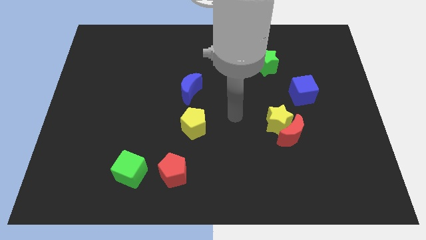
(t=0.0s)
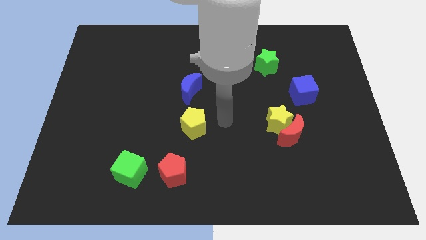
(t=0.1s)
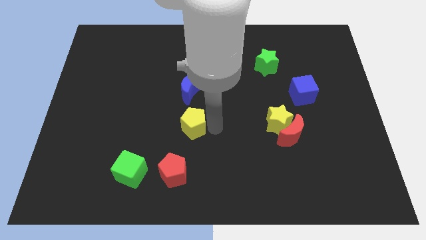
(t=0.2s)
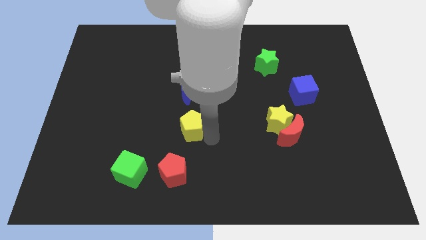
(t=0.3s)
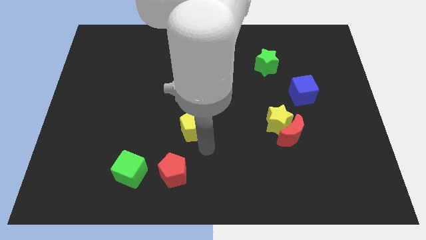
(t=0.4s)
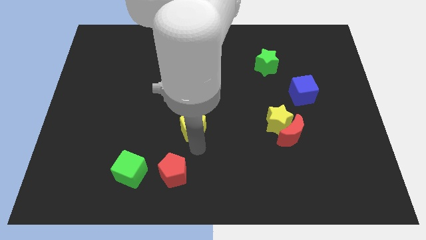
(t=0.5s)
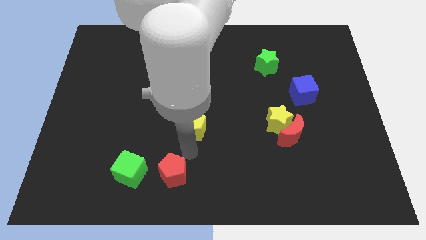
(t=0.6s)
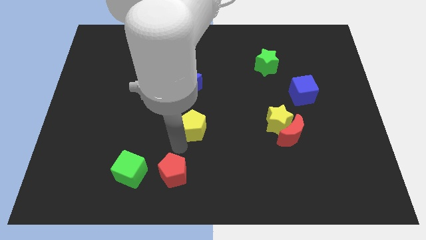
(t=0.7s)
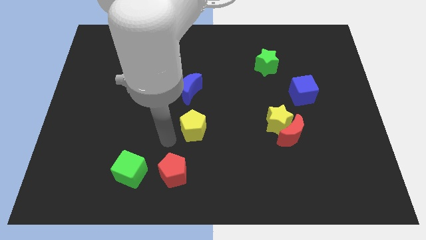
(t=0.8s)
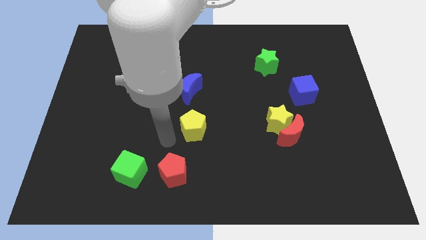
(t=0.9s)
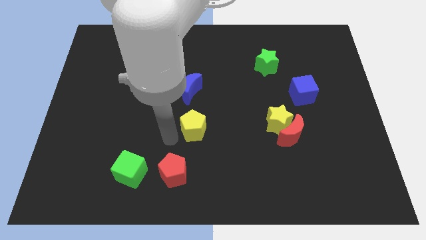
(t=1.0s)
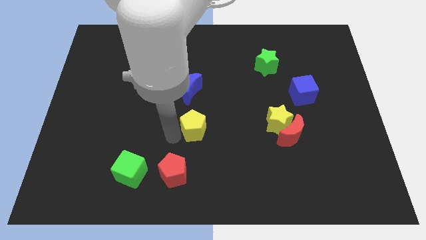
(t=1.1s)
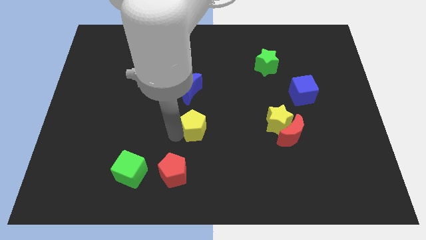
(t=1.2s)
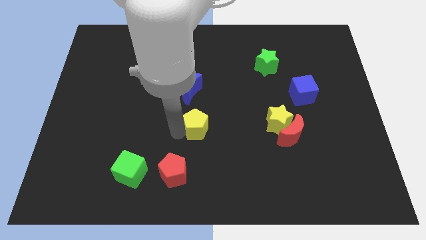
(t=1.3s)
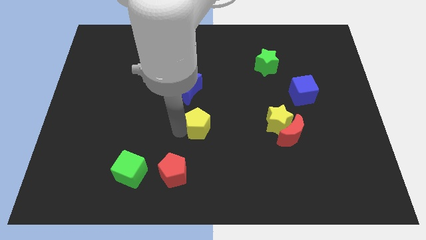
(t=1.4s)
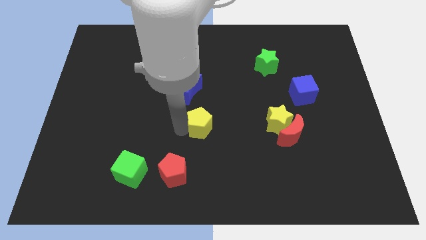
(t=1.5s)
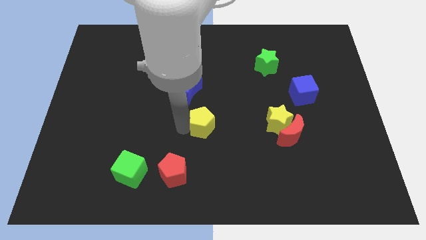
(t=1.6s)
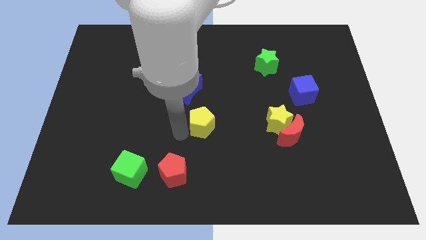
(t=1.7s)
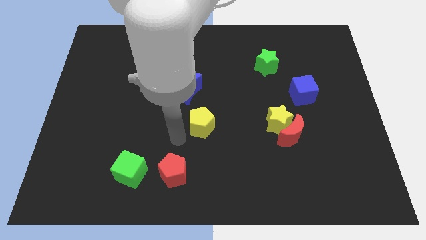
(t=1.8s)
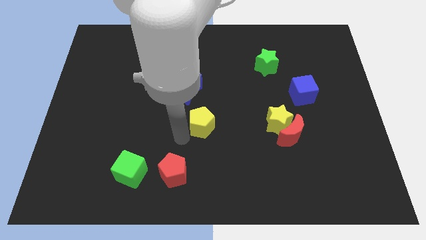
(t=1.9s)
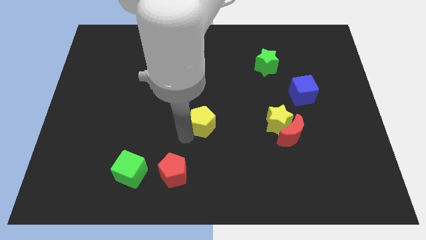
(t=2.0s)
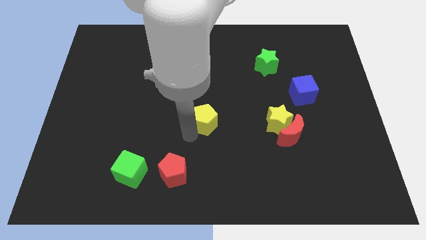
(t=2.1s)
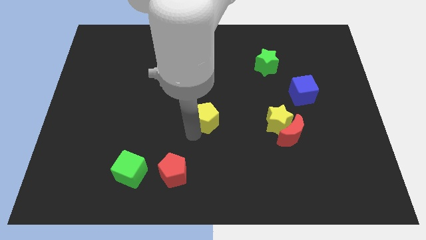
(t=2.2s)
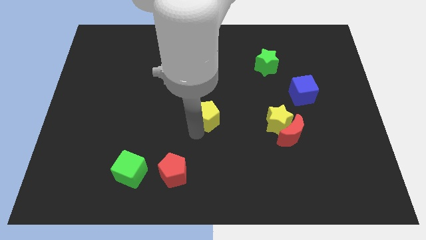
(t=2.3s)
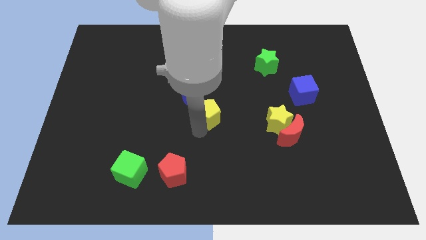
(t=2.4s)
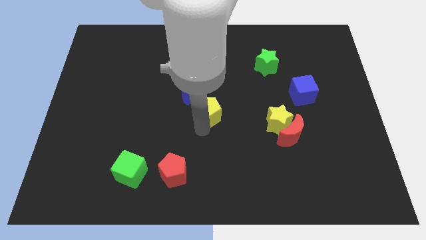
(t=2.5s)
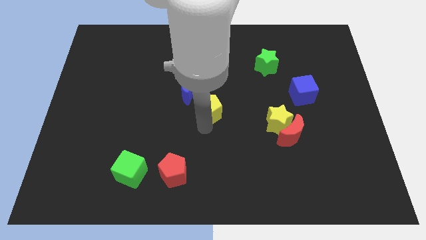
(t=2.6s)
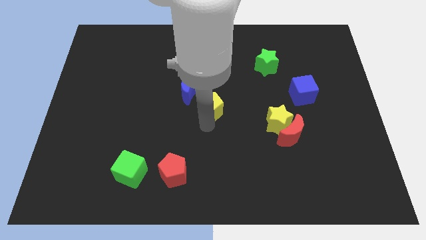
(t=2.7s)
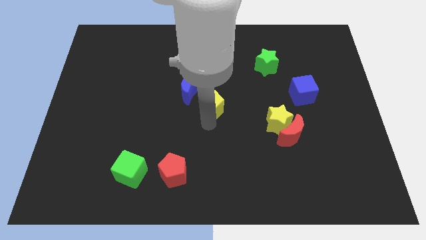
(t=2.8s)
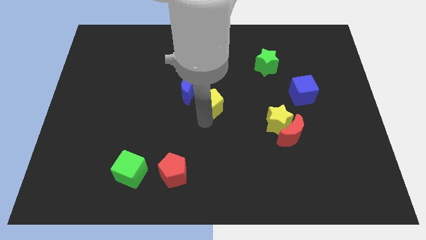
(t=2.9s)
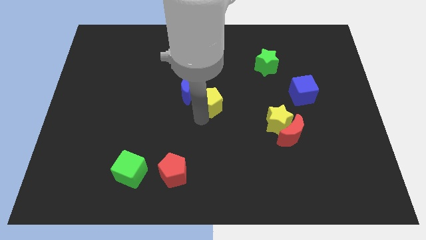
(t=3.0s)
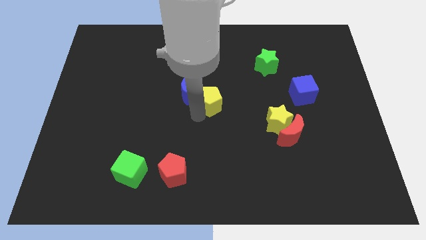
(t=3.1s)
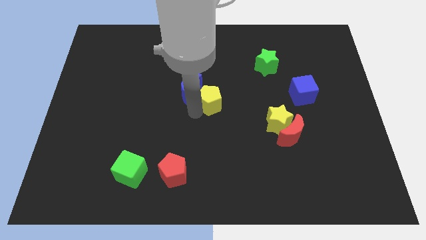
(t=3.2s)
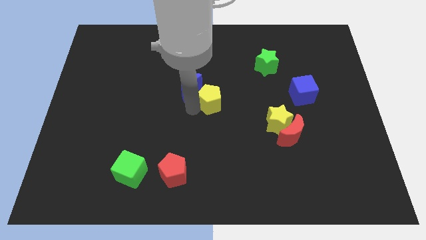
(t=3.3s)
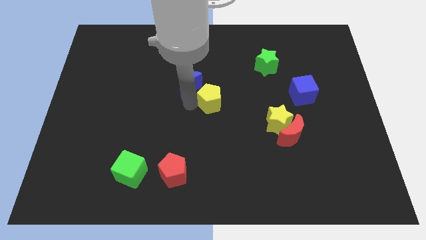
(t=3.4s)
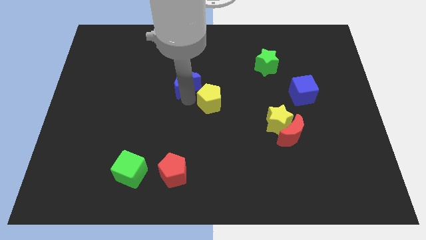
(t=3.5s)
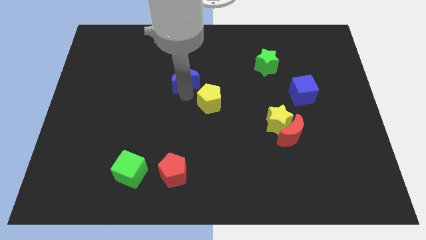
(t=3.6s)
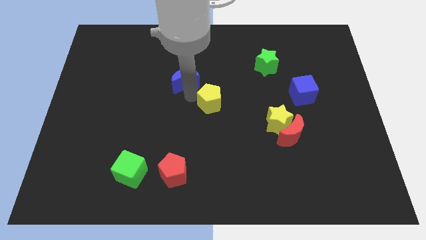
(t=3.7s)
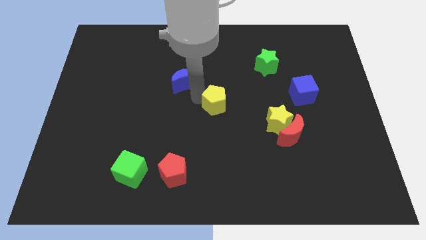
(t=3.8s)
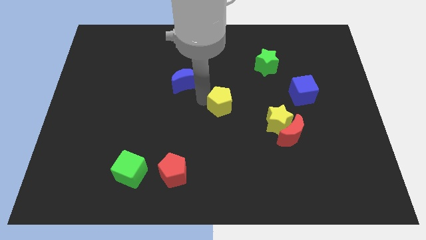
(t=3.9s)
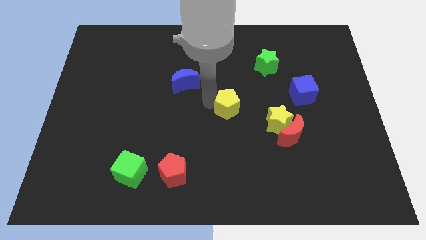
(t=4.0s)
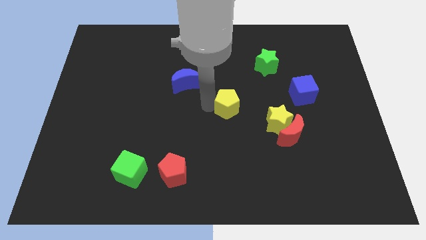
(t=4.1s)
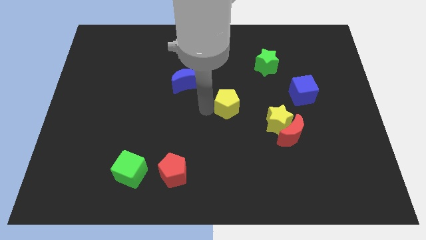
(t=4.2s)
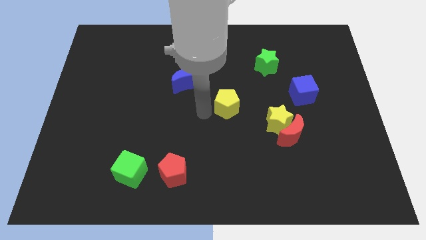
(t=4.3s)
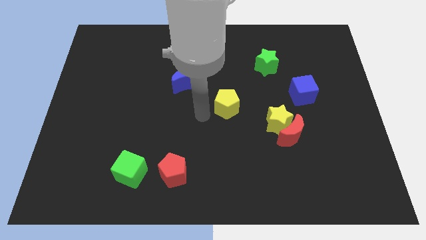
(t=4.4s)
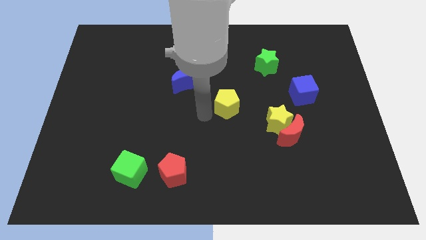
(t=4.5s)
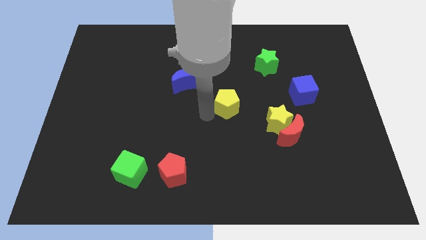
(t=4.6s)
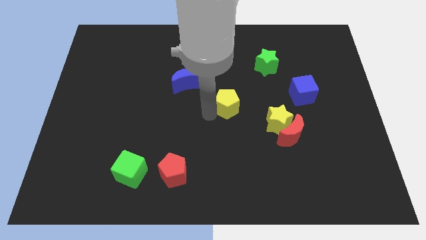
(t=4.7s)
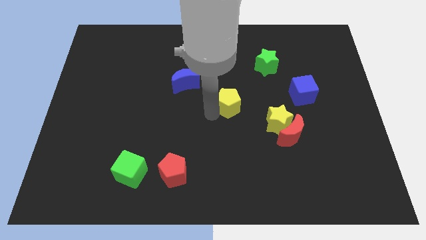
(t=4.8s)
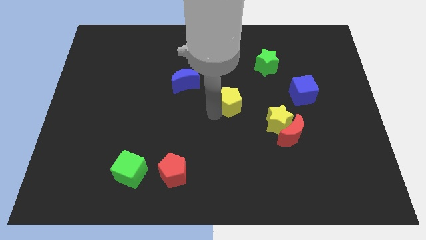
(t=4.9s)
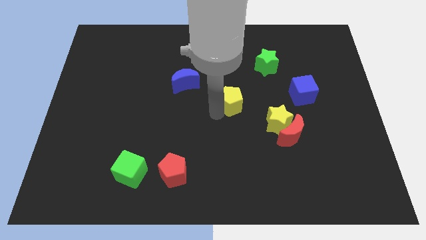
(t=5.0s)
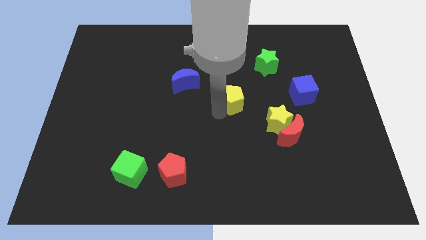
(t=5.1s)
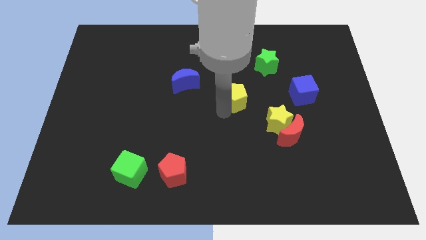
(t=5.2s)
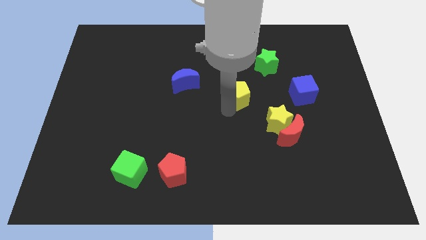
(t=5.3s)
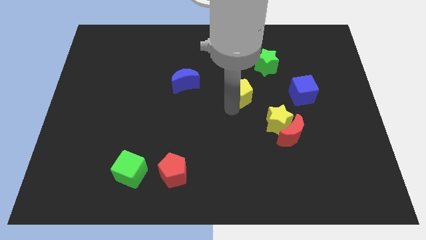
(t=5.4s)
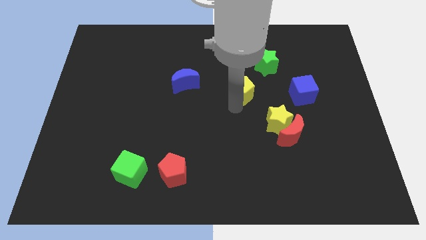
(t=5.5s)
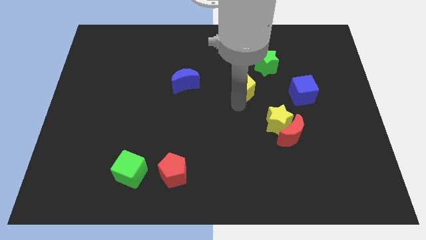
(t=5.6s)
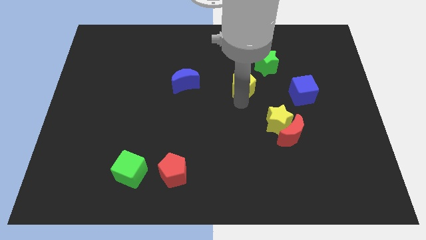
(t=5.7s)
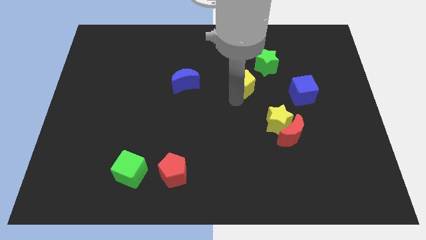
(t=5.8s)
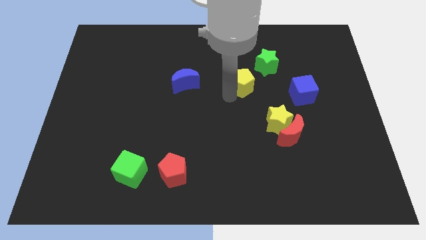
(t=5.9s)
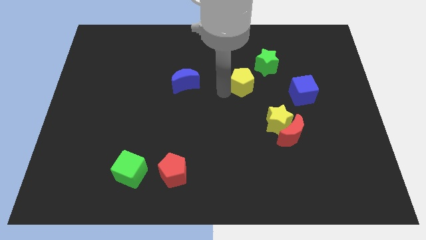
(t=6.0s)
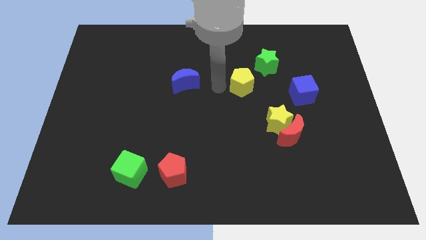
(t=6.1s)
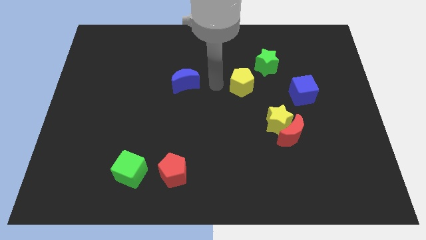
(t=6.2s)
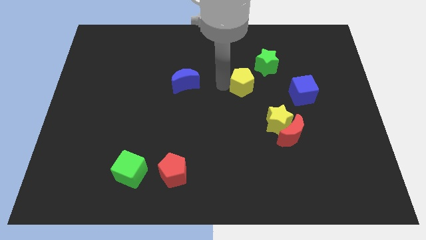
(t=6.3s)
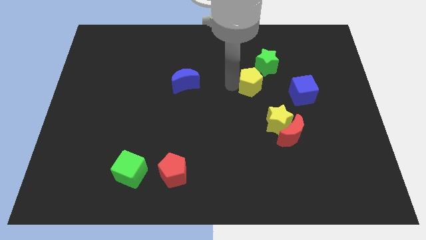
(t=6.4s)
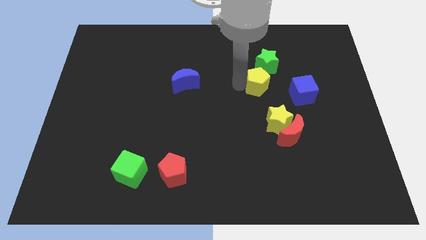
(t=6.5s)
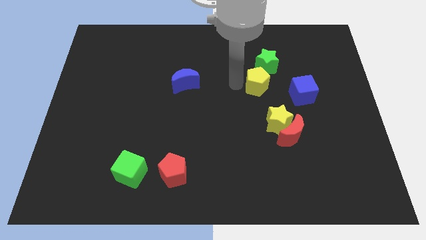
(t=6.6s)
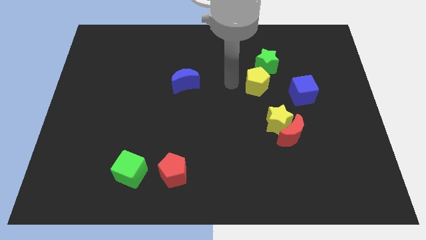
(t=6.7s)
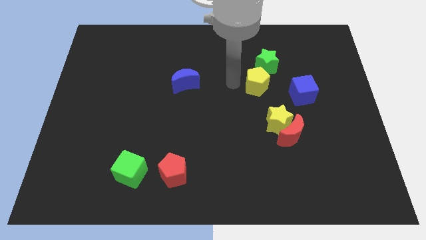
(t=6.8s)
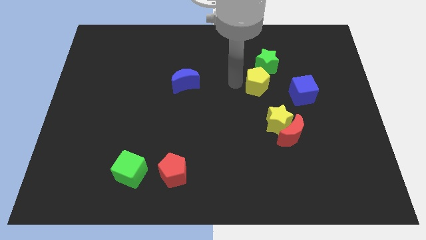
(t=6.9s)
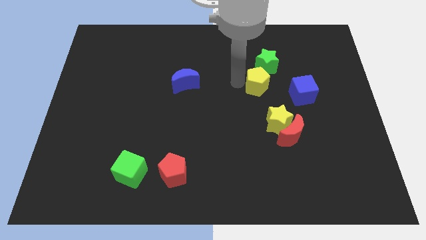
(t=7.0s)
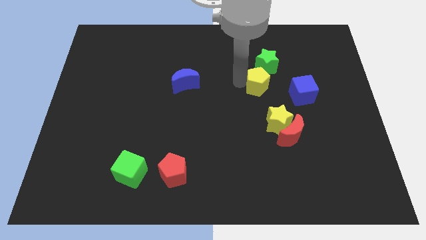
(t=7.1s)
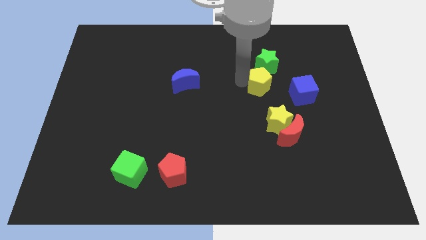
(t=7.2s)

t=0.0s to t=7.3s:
slide the yellow pentagon diagonally upwards and right

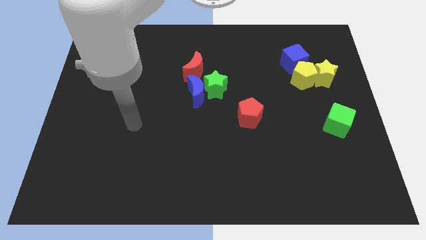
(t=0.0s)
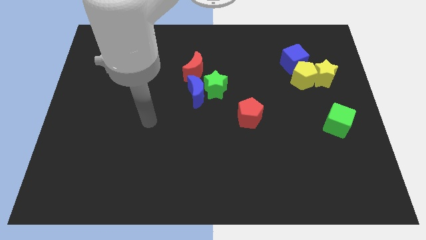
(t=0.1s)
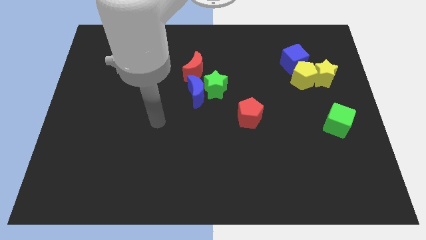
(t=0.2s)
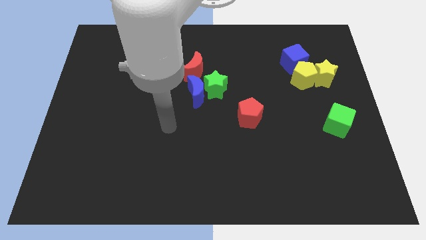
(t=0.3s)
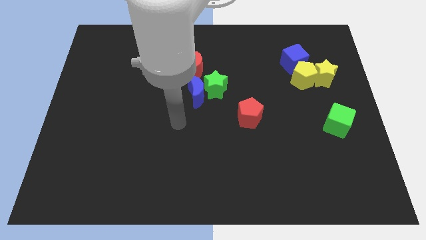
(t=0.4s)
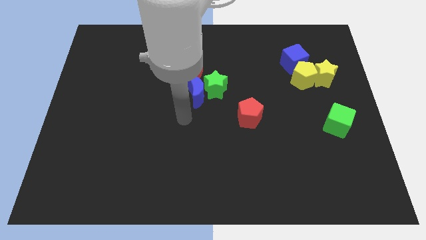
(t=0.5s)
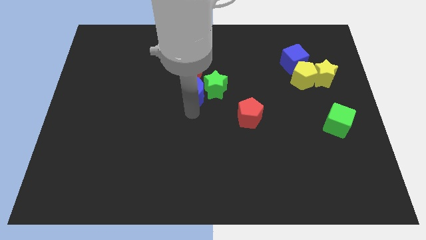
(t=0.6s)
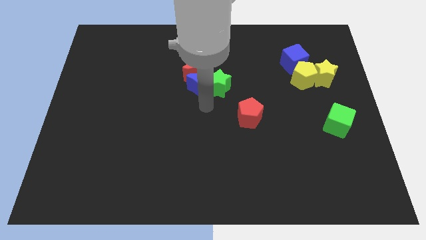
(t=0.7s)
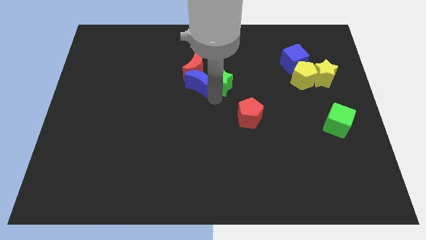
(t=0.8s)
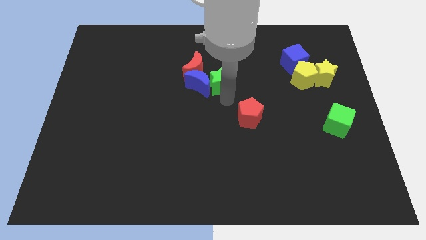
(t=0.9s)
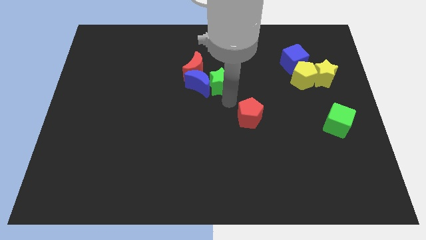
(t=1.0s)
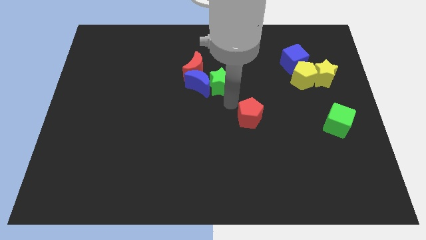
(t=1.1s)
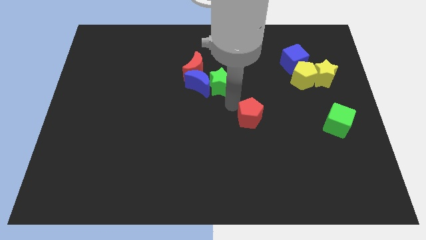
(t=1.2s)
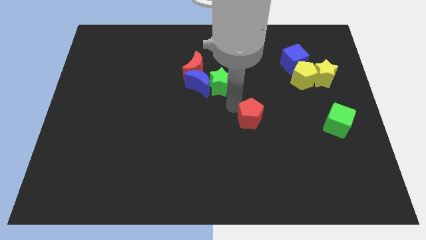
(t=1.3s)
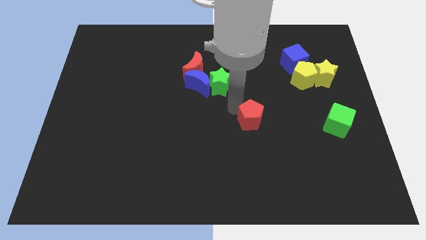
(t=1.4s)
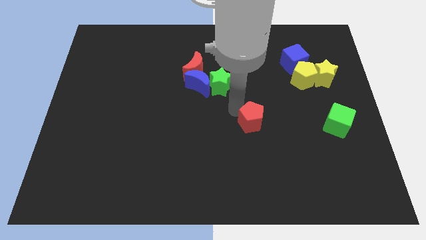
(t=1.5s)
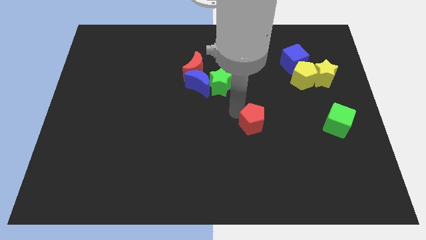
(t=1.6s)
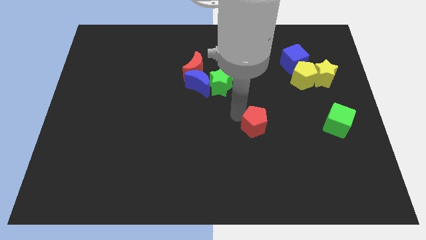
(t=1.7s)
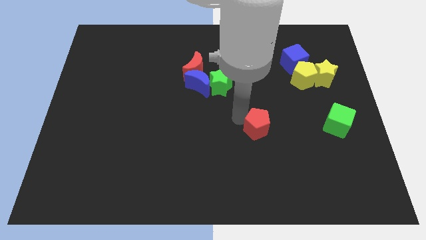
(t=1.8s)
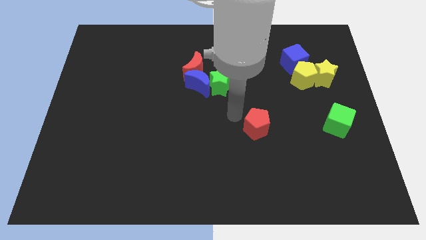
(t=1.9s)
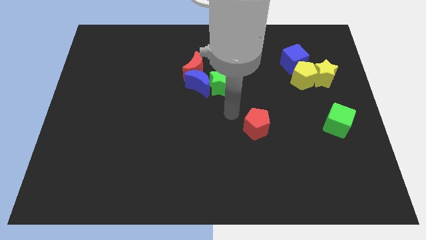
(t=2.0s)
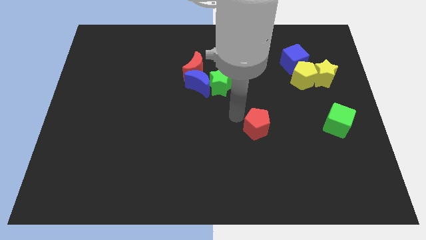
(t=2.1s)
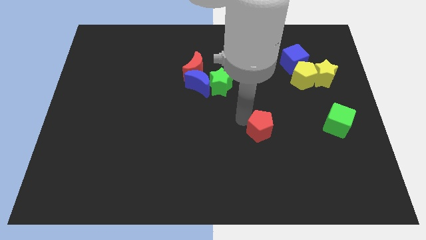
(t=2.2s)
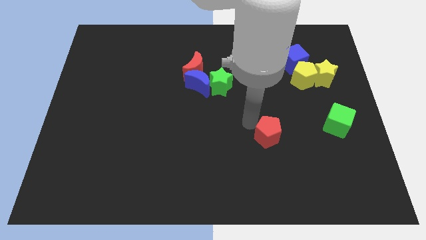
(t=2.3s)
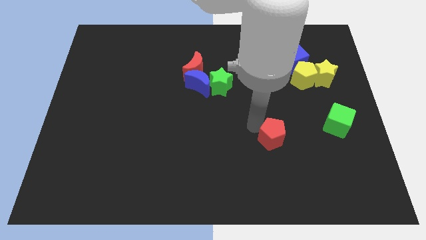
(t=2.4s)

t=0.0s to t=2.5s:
move the red pentagon downwards and then right somewhat
